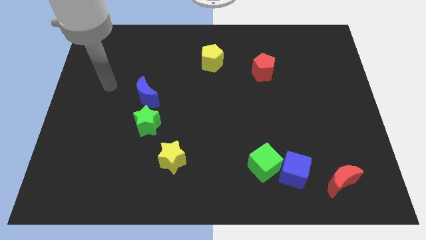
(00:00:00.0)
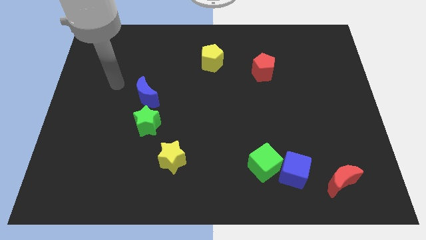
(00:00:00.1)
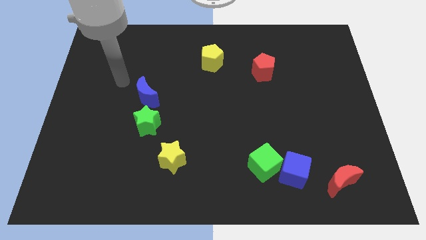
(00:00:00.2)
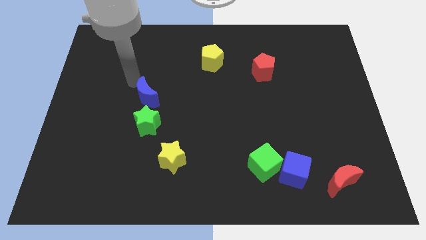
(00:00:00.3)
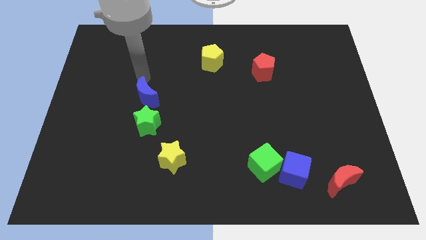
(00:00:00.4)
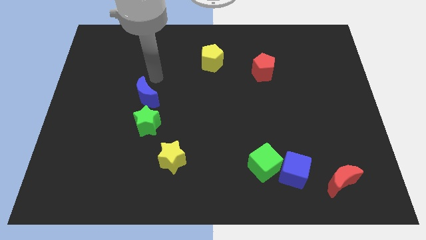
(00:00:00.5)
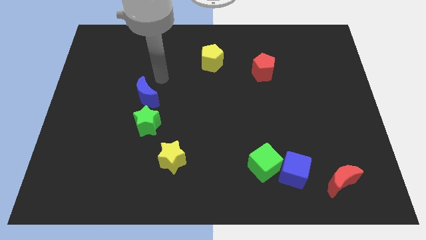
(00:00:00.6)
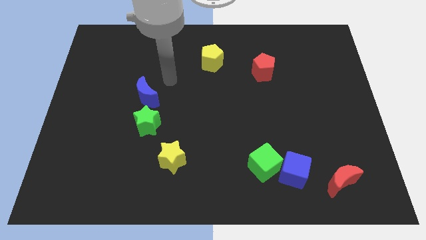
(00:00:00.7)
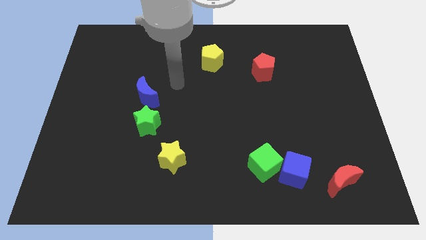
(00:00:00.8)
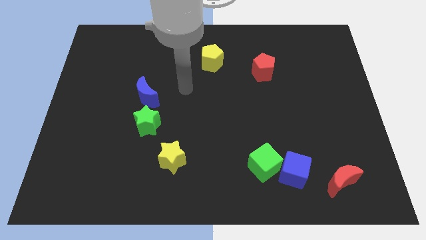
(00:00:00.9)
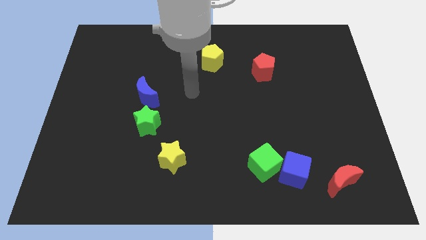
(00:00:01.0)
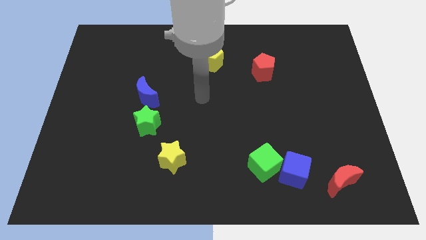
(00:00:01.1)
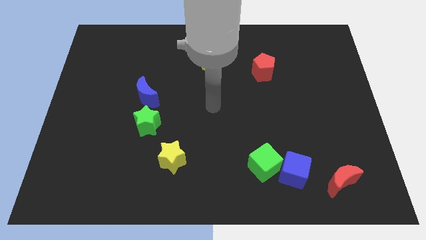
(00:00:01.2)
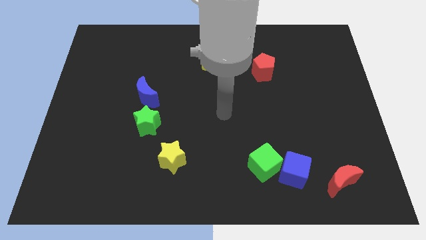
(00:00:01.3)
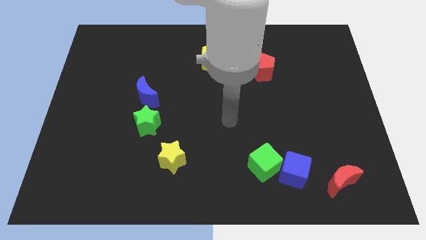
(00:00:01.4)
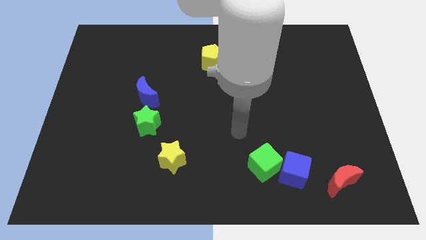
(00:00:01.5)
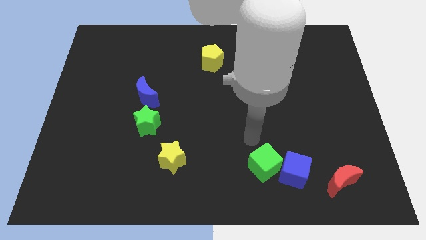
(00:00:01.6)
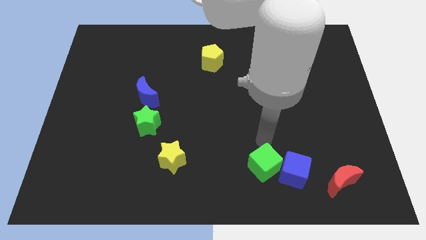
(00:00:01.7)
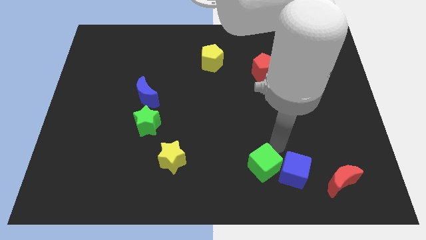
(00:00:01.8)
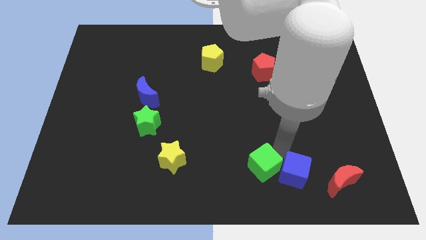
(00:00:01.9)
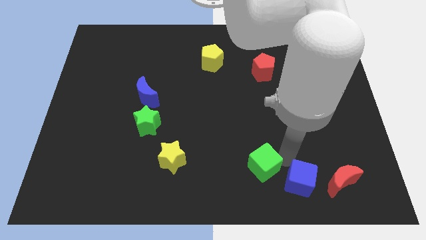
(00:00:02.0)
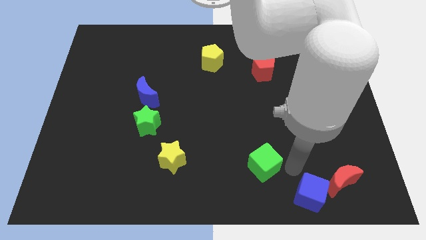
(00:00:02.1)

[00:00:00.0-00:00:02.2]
pull the green cube apart from the blue cube

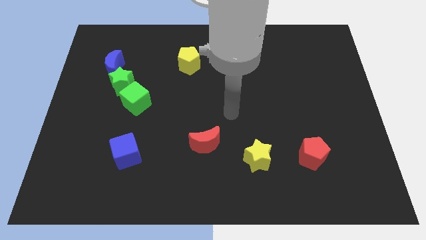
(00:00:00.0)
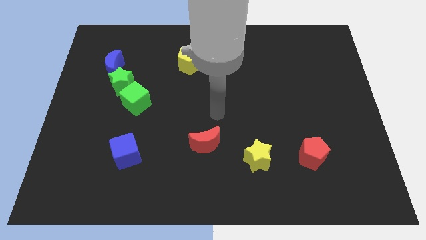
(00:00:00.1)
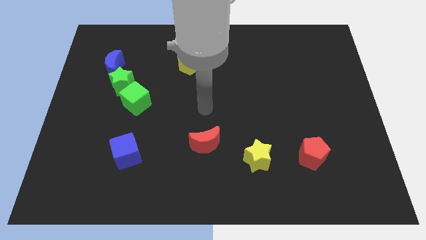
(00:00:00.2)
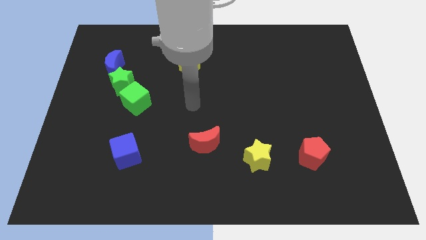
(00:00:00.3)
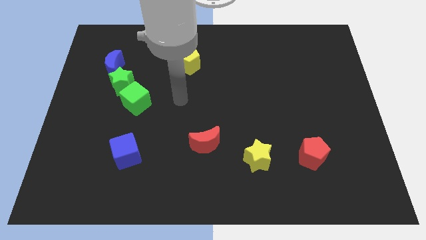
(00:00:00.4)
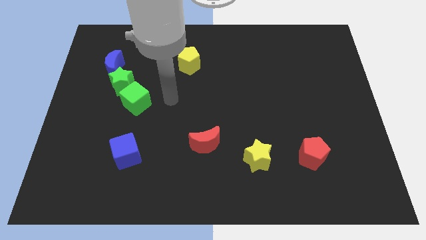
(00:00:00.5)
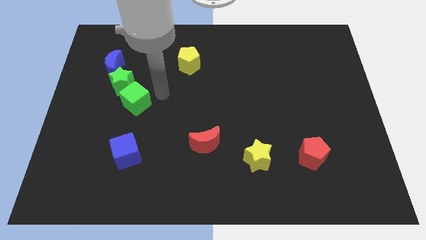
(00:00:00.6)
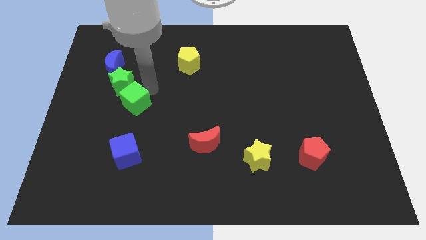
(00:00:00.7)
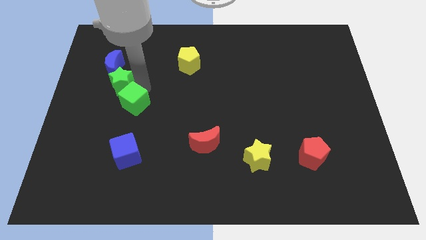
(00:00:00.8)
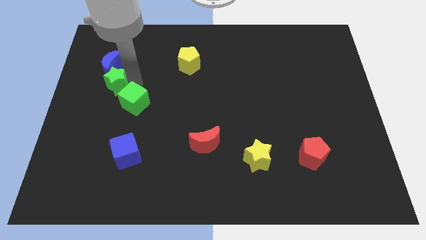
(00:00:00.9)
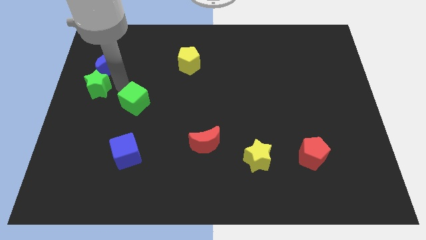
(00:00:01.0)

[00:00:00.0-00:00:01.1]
separate the green cube from the green star

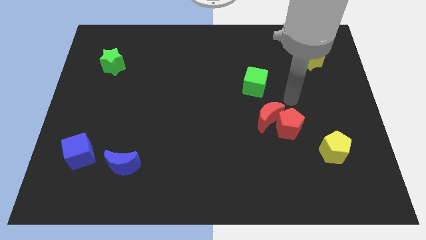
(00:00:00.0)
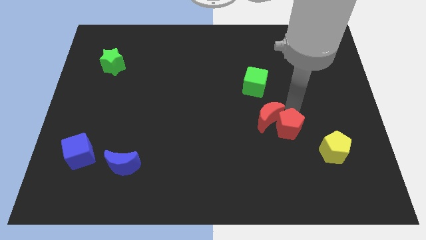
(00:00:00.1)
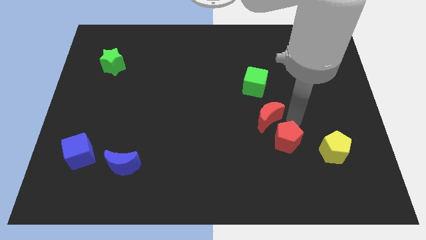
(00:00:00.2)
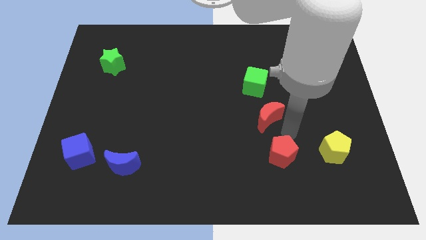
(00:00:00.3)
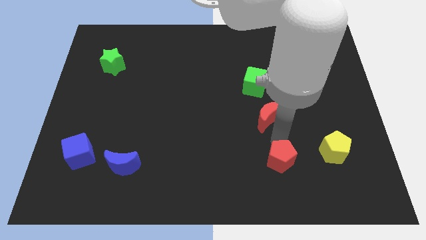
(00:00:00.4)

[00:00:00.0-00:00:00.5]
separate the red moon from the red pentagon

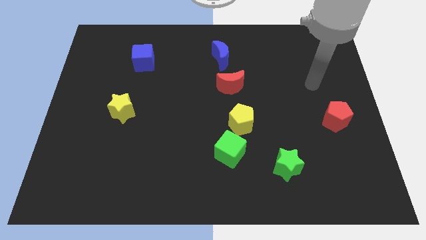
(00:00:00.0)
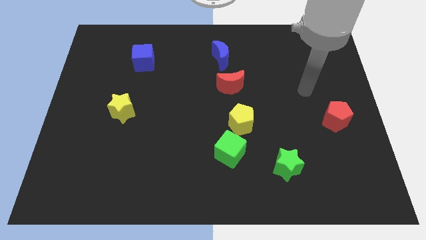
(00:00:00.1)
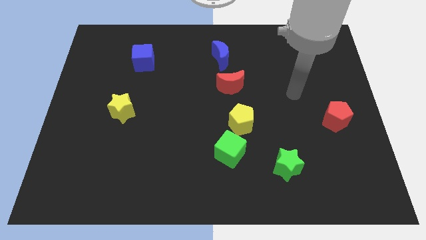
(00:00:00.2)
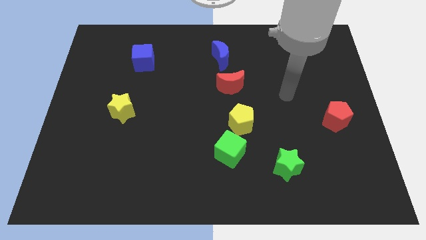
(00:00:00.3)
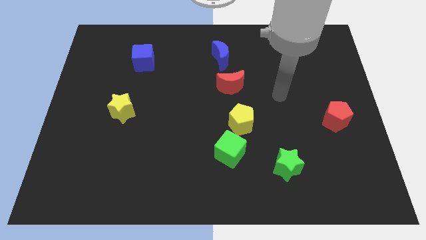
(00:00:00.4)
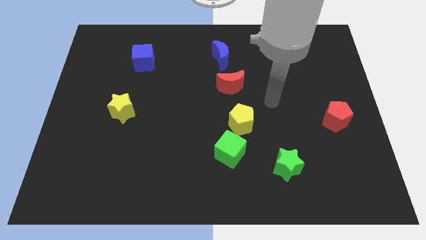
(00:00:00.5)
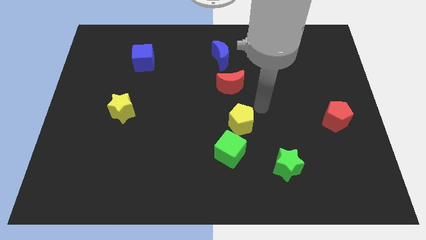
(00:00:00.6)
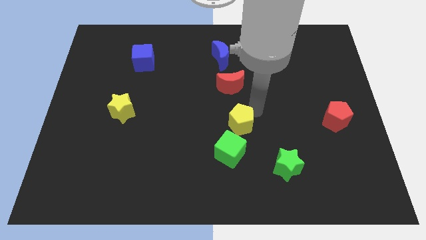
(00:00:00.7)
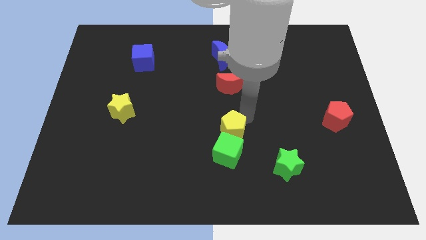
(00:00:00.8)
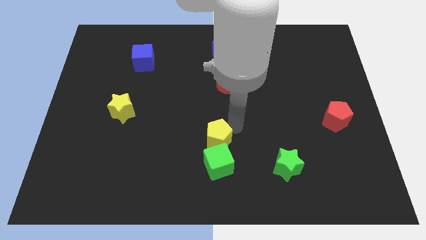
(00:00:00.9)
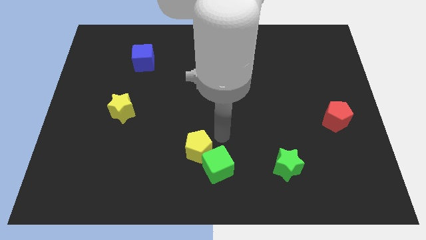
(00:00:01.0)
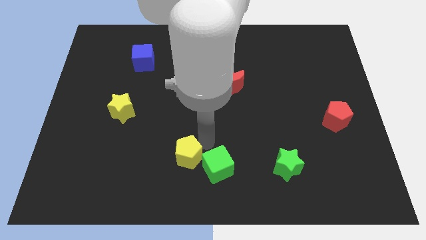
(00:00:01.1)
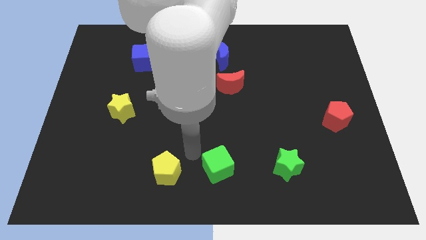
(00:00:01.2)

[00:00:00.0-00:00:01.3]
move the green cube away from the yellow pentagon

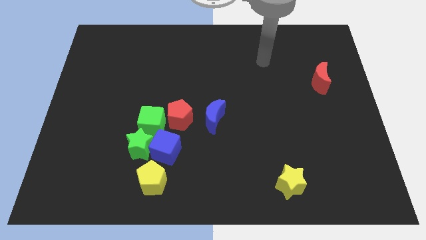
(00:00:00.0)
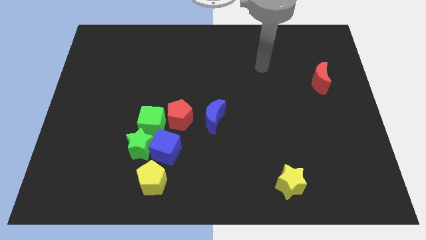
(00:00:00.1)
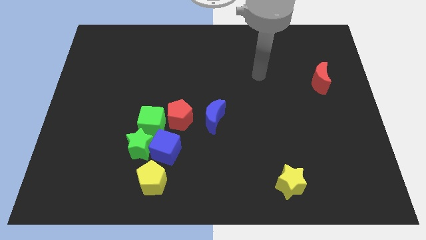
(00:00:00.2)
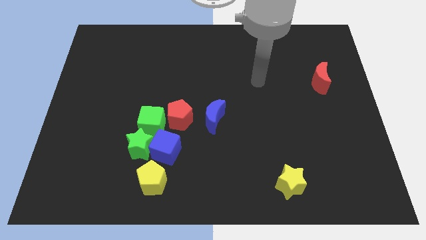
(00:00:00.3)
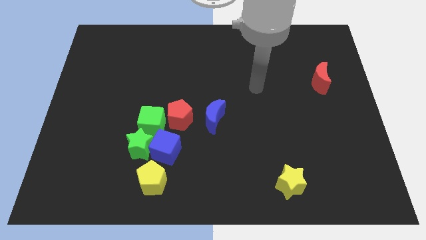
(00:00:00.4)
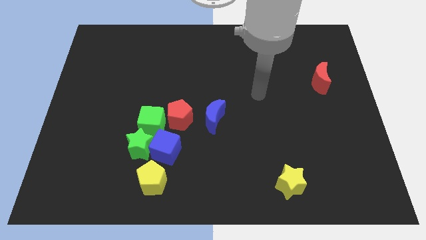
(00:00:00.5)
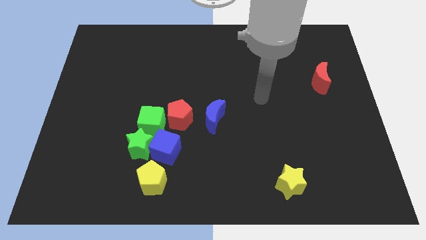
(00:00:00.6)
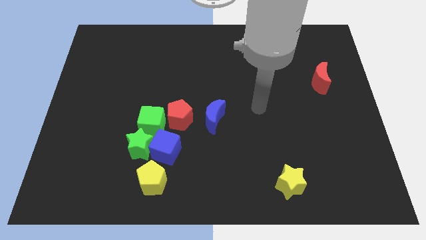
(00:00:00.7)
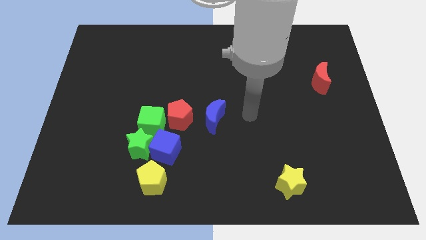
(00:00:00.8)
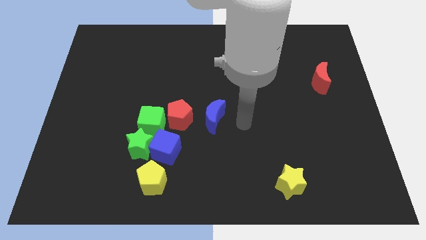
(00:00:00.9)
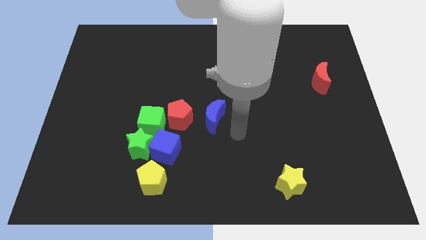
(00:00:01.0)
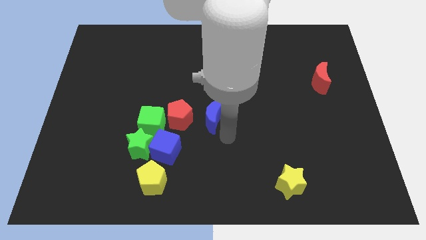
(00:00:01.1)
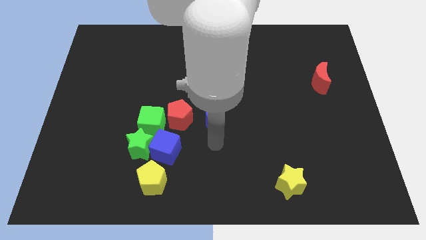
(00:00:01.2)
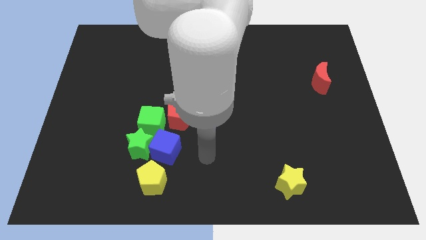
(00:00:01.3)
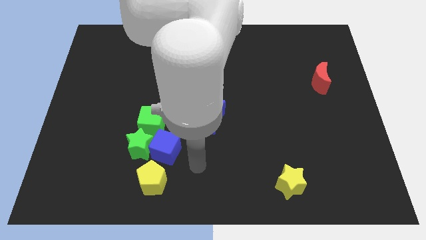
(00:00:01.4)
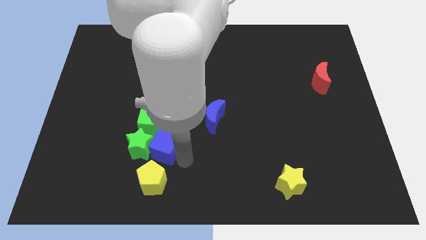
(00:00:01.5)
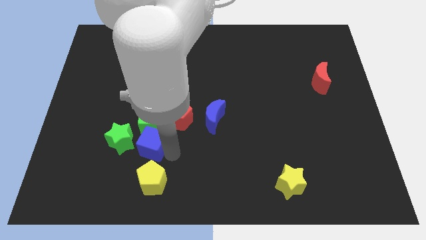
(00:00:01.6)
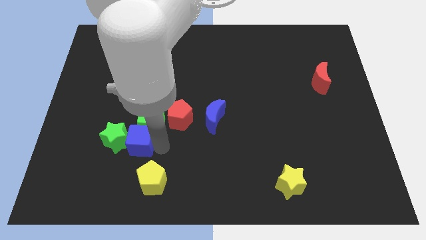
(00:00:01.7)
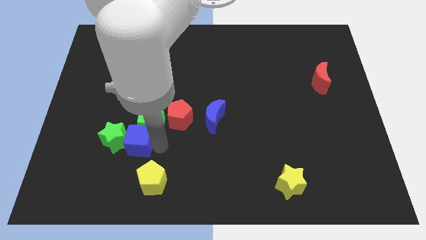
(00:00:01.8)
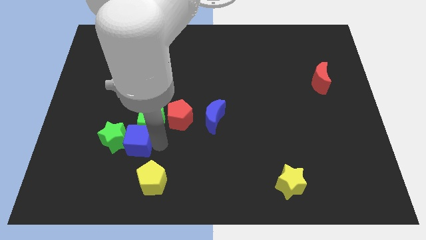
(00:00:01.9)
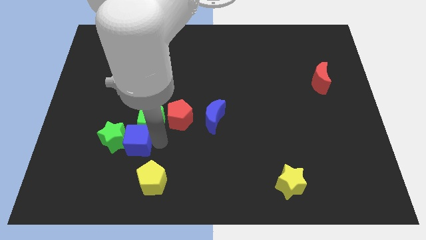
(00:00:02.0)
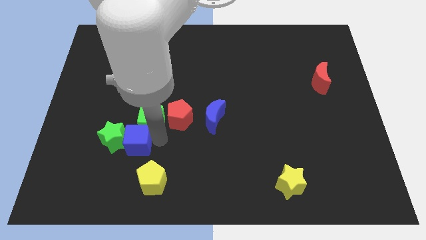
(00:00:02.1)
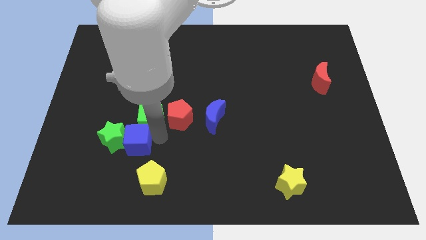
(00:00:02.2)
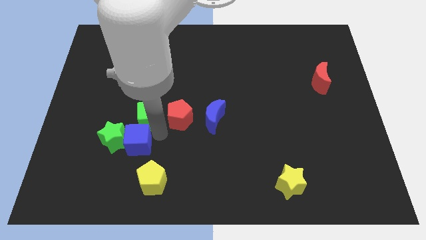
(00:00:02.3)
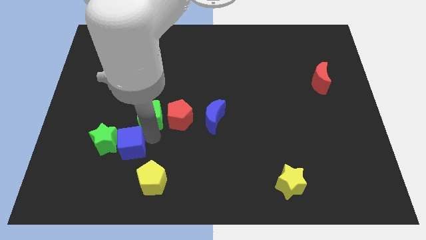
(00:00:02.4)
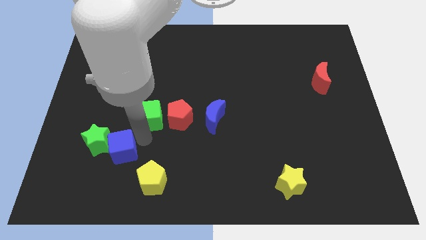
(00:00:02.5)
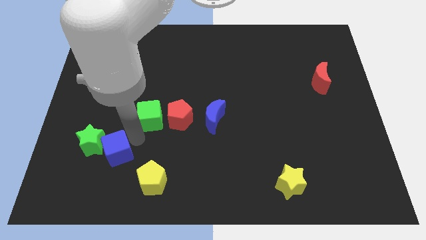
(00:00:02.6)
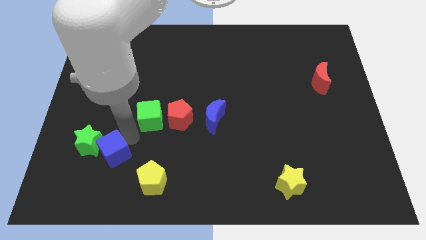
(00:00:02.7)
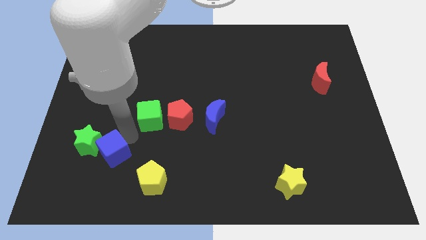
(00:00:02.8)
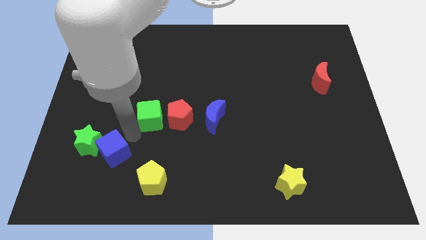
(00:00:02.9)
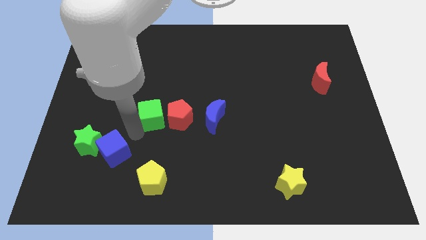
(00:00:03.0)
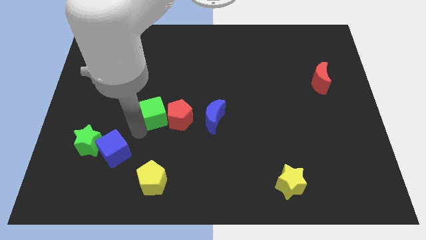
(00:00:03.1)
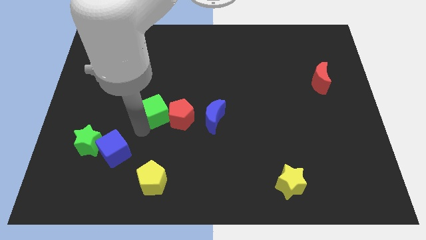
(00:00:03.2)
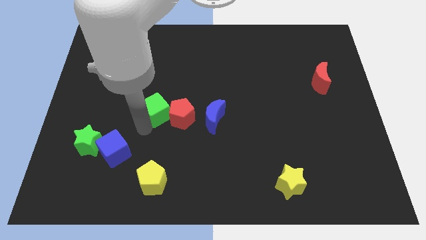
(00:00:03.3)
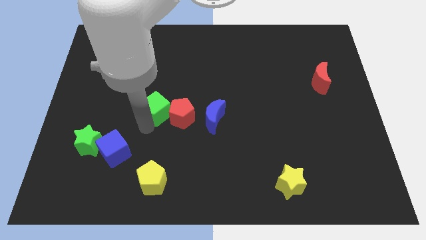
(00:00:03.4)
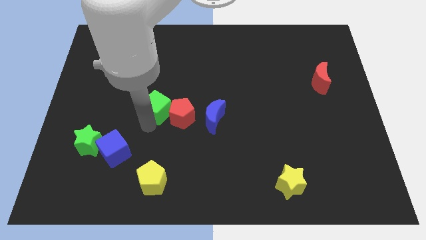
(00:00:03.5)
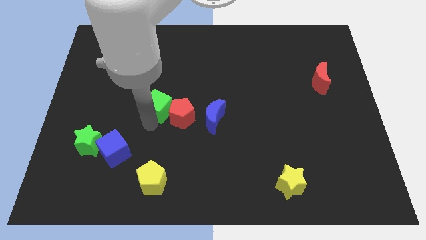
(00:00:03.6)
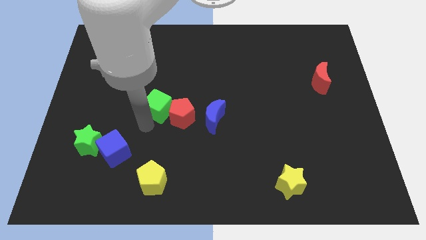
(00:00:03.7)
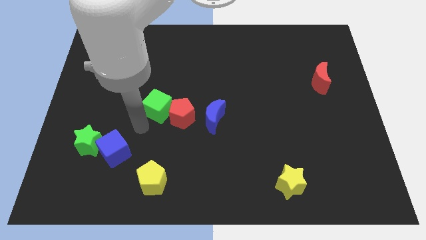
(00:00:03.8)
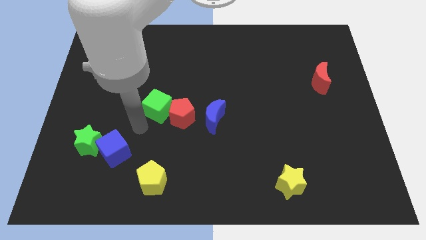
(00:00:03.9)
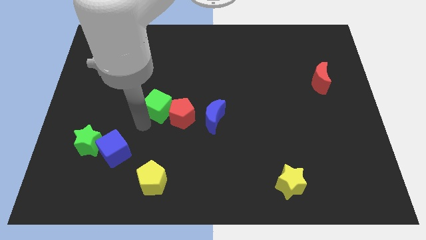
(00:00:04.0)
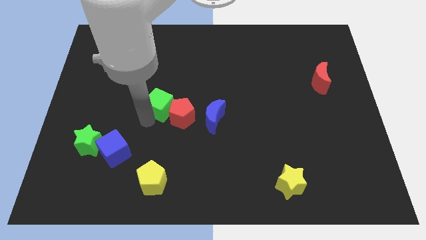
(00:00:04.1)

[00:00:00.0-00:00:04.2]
separate the green cube from the green star, red pentagon, and blue cube
